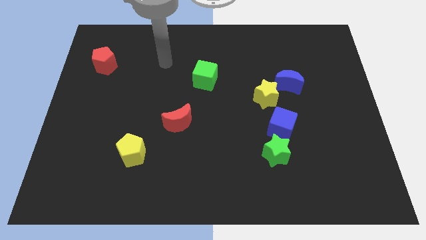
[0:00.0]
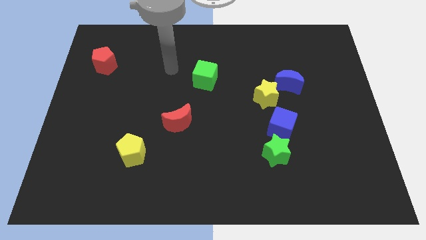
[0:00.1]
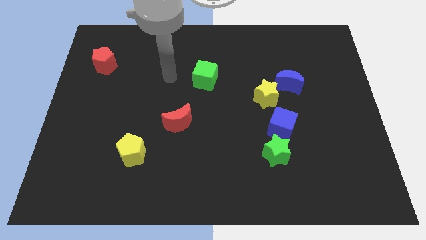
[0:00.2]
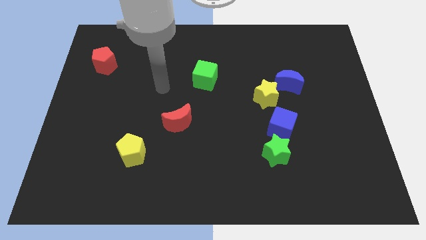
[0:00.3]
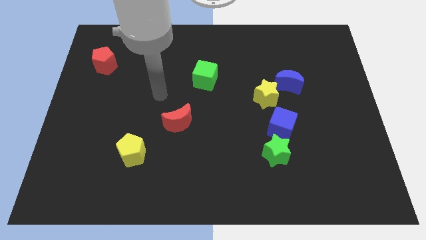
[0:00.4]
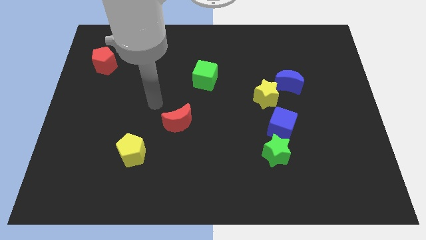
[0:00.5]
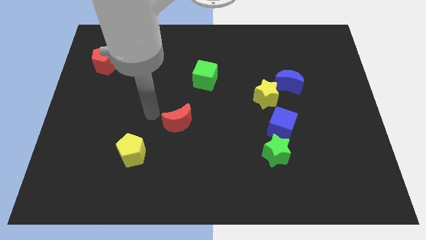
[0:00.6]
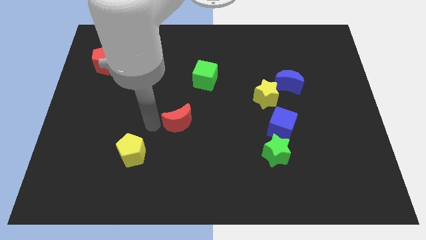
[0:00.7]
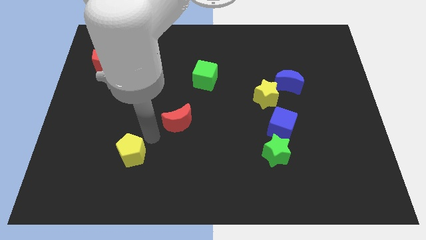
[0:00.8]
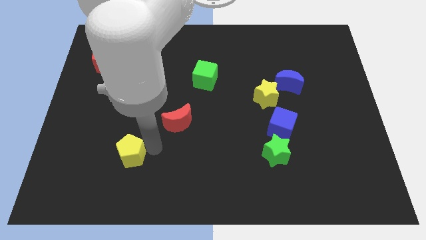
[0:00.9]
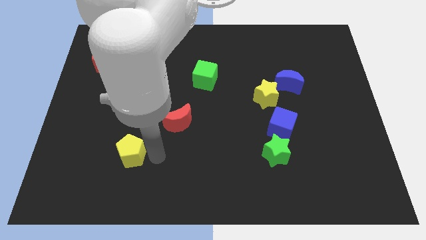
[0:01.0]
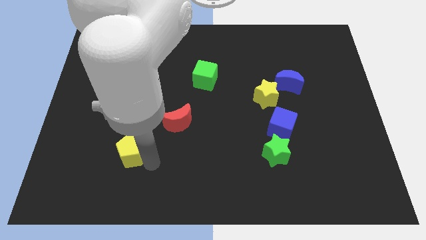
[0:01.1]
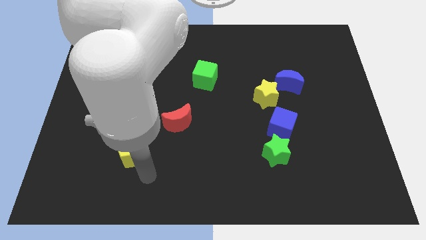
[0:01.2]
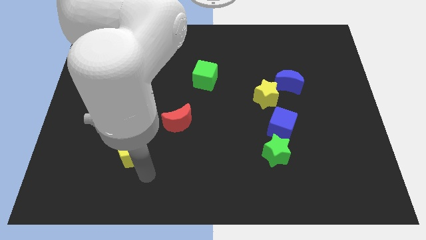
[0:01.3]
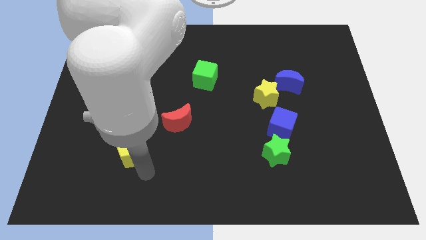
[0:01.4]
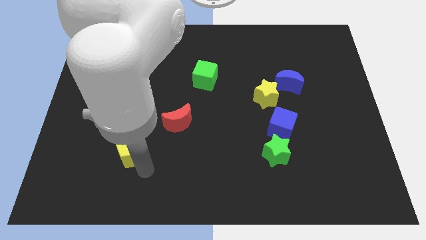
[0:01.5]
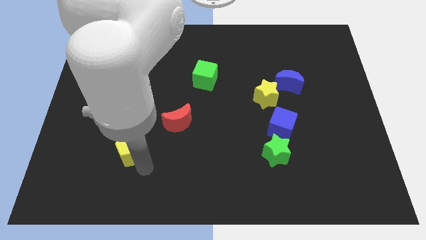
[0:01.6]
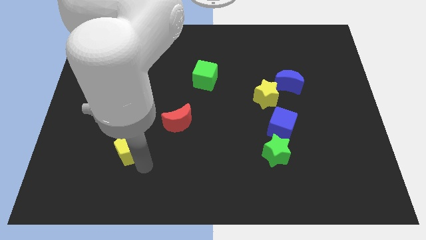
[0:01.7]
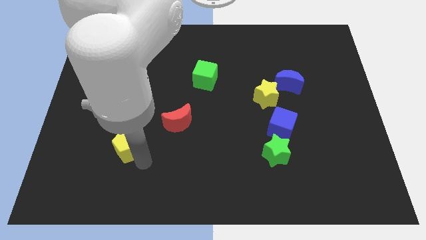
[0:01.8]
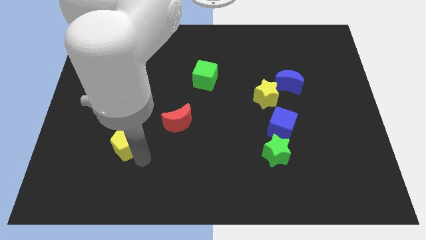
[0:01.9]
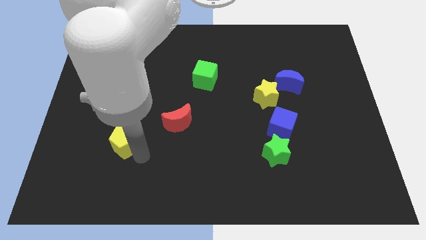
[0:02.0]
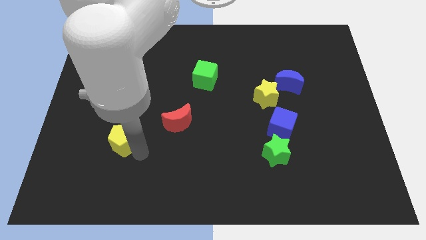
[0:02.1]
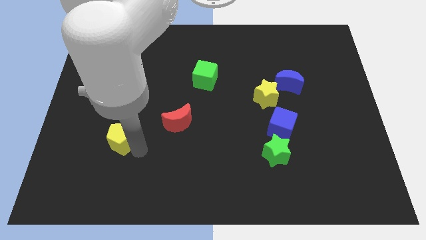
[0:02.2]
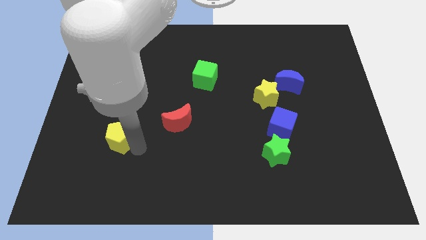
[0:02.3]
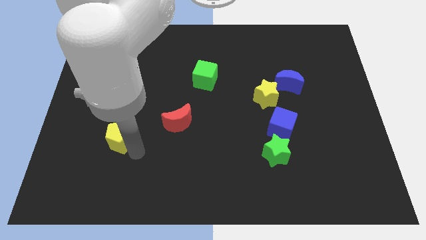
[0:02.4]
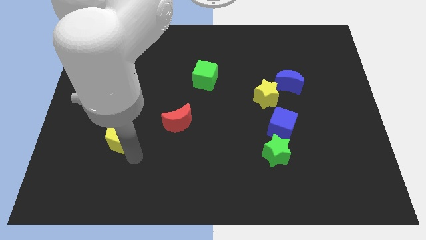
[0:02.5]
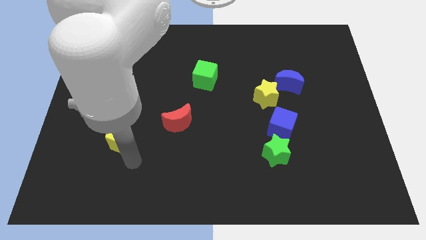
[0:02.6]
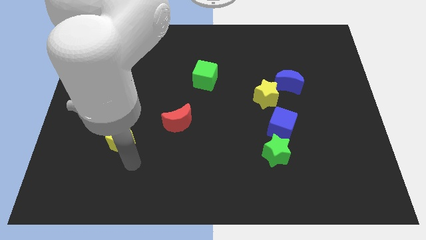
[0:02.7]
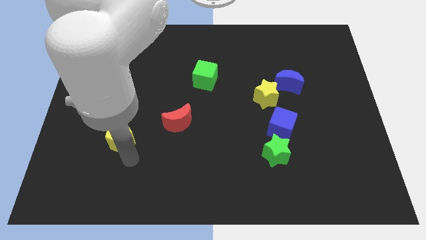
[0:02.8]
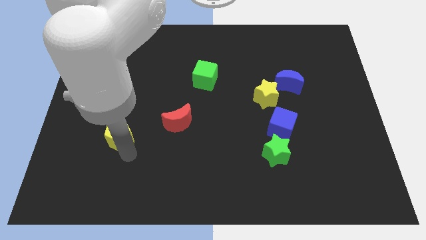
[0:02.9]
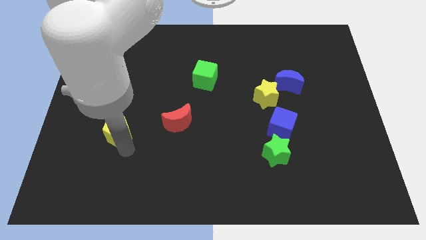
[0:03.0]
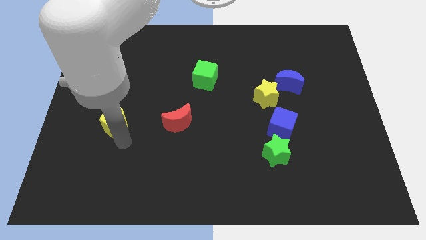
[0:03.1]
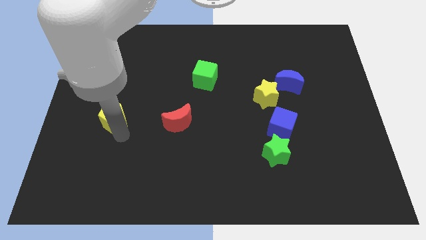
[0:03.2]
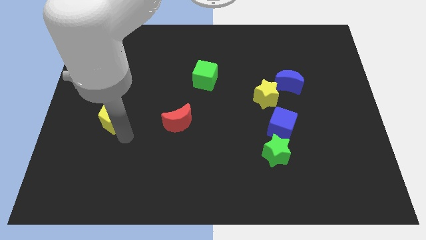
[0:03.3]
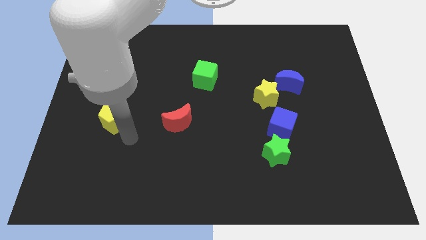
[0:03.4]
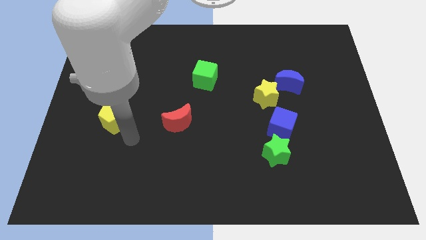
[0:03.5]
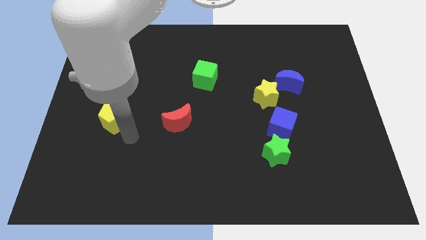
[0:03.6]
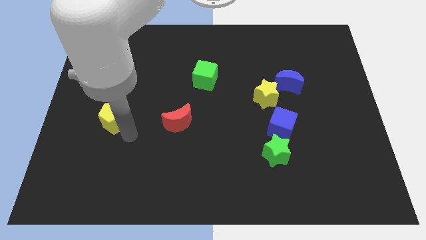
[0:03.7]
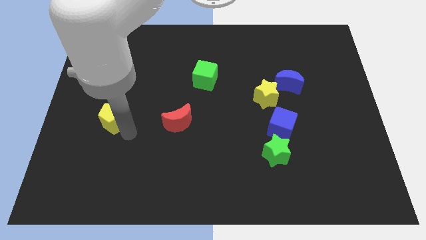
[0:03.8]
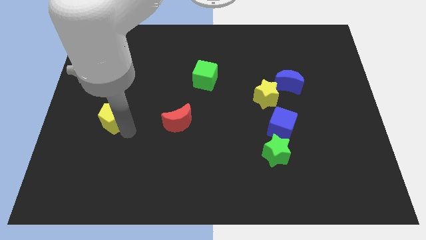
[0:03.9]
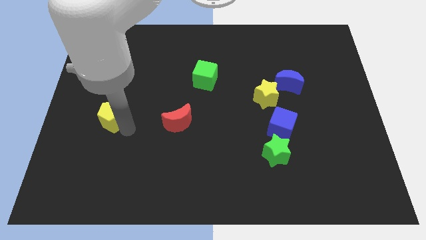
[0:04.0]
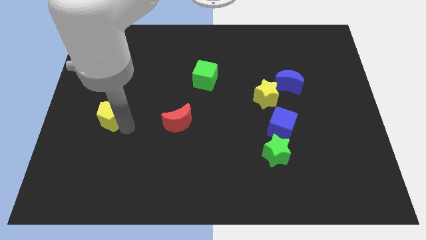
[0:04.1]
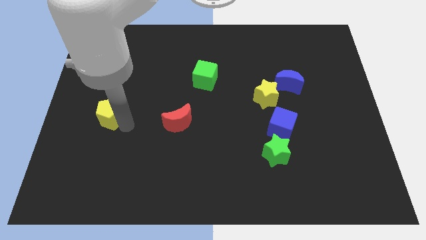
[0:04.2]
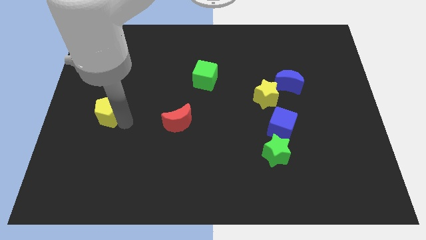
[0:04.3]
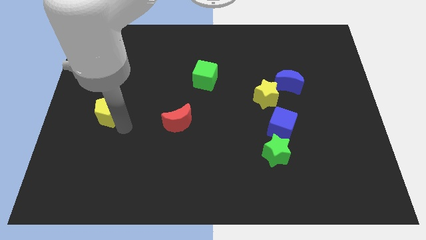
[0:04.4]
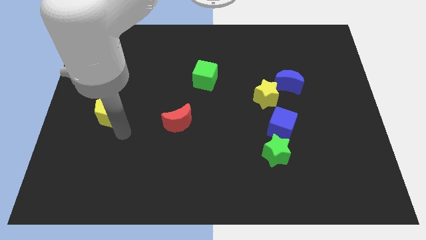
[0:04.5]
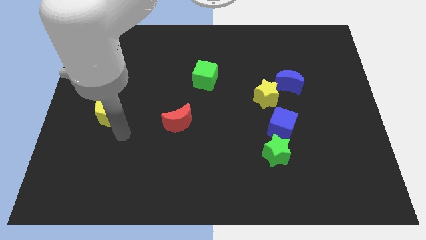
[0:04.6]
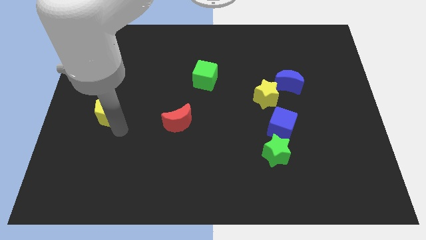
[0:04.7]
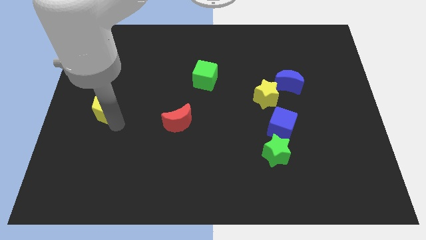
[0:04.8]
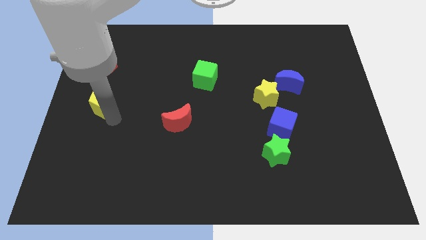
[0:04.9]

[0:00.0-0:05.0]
move the yellow pentagon to the bottom side of the red pentagon
